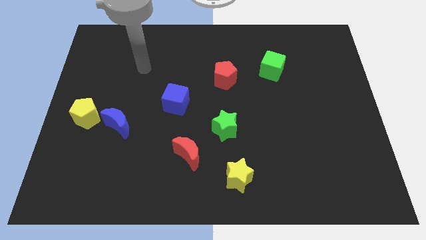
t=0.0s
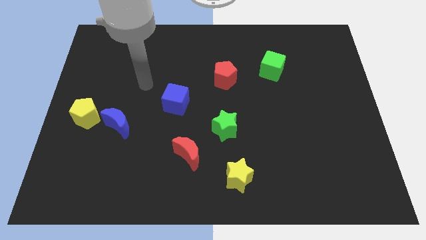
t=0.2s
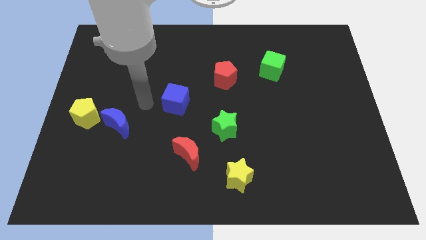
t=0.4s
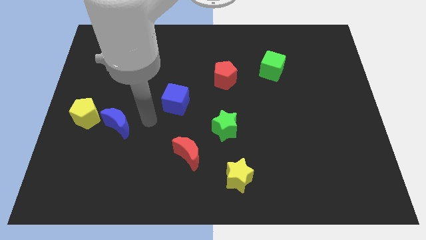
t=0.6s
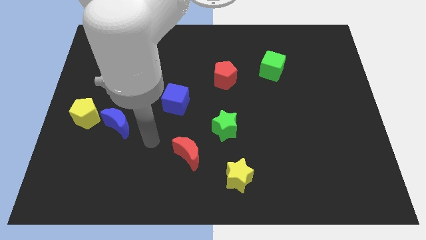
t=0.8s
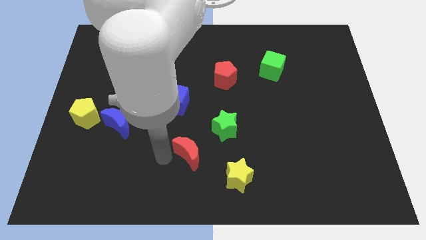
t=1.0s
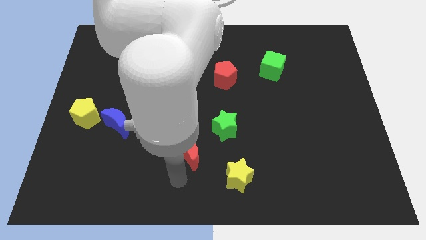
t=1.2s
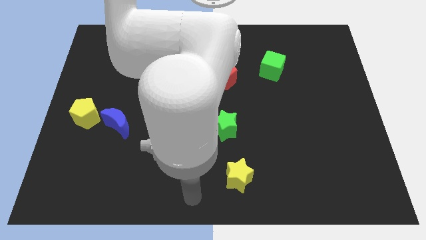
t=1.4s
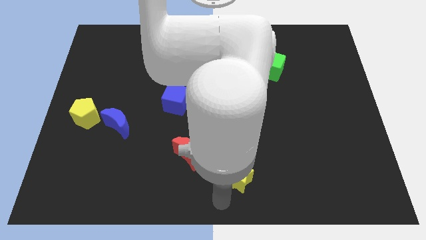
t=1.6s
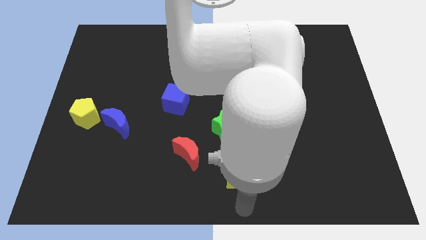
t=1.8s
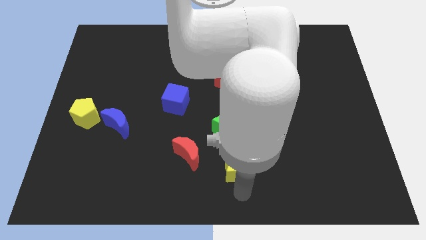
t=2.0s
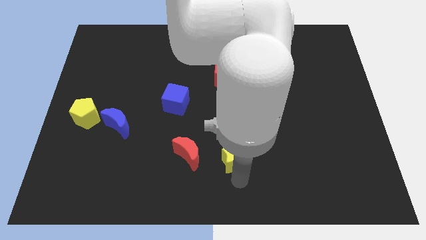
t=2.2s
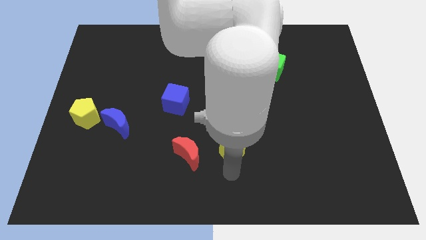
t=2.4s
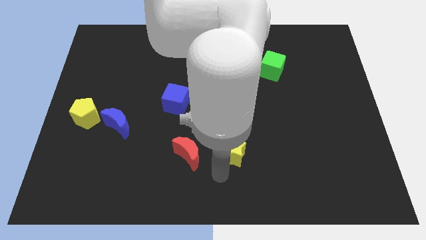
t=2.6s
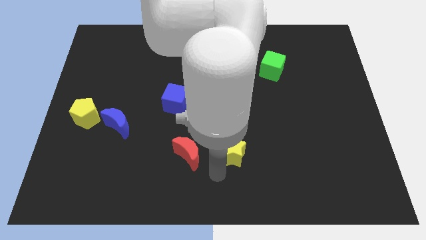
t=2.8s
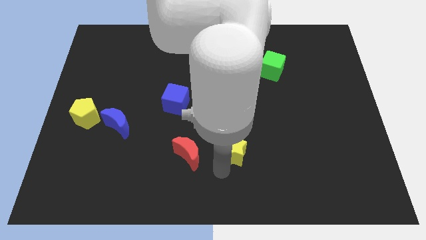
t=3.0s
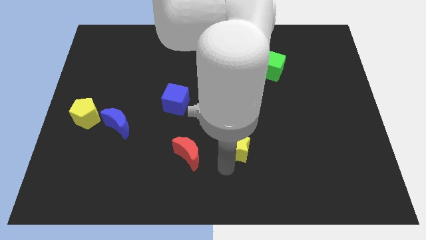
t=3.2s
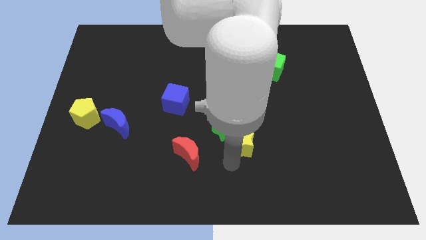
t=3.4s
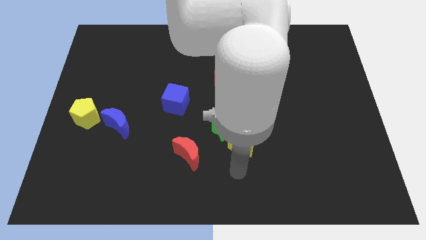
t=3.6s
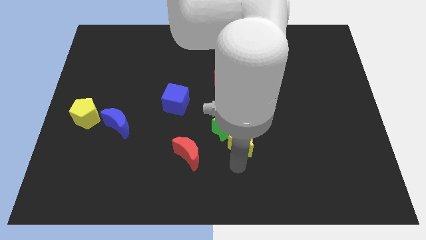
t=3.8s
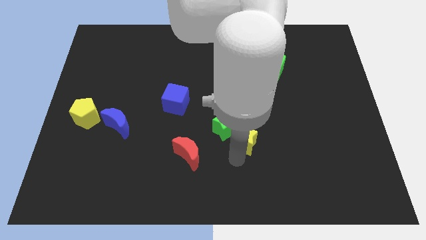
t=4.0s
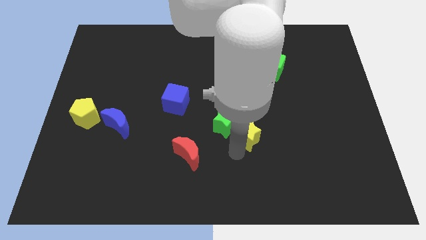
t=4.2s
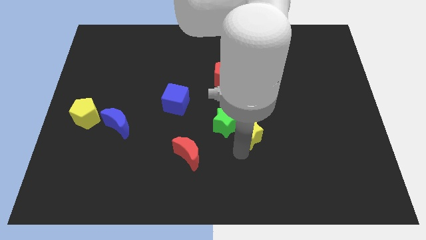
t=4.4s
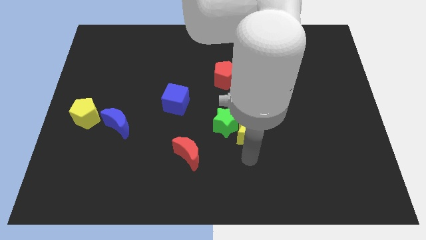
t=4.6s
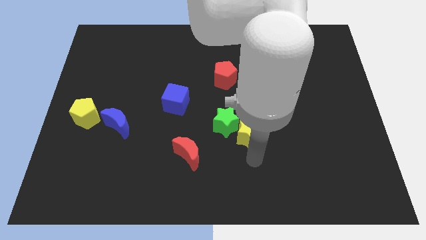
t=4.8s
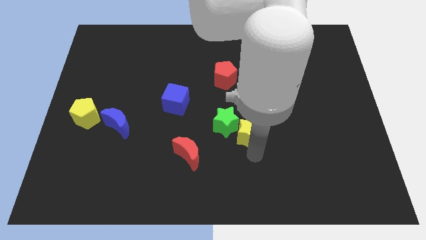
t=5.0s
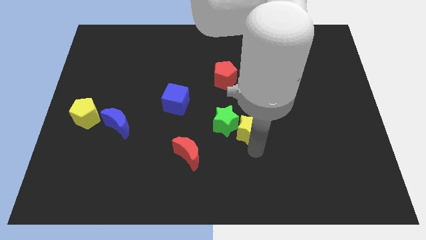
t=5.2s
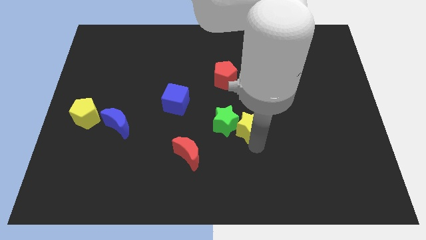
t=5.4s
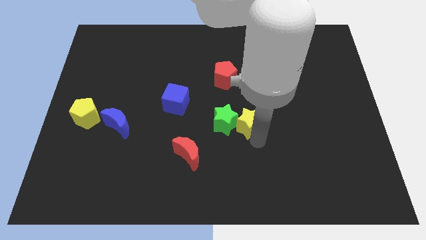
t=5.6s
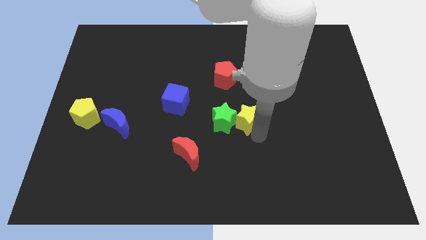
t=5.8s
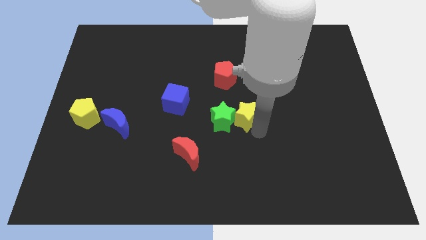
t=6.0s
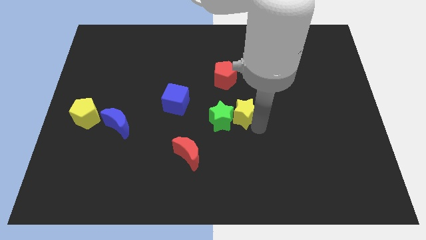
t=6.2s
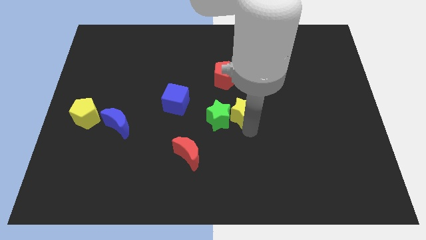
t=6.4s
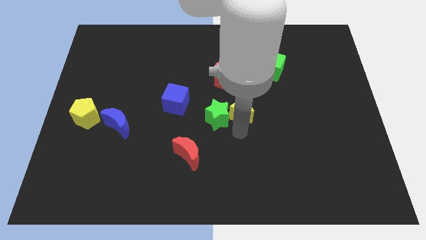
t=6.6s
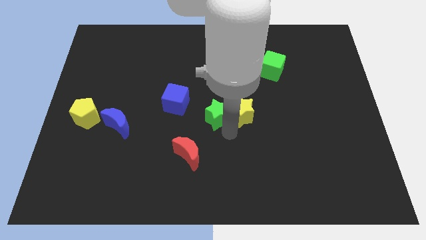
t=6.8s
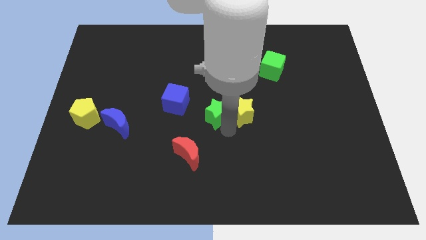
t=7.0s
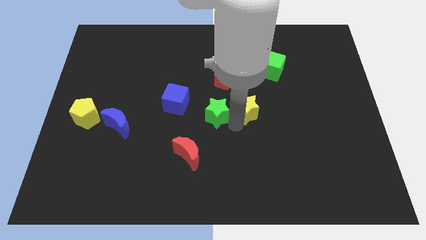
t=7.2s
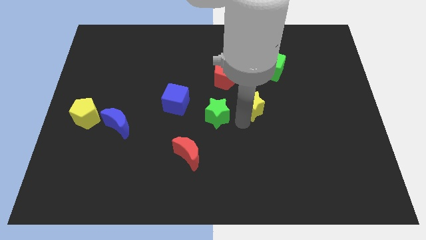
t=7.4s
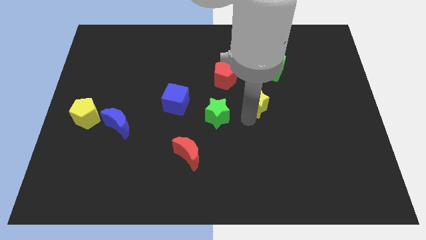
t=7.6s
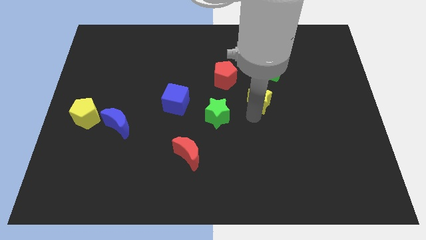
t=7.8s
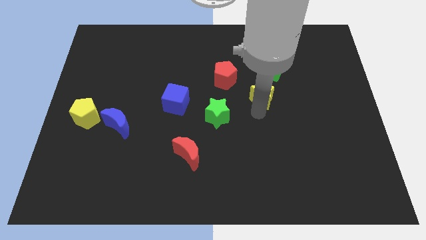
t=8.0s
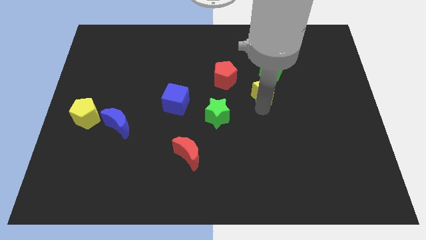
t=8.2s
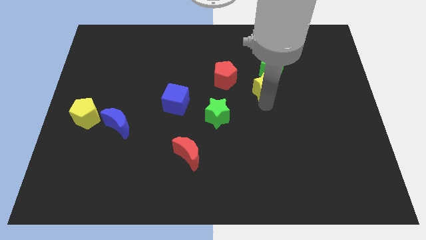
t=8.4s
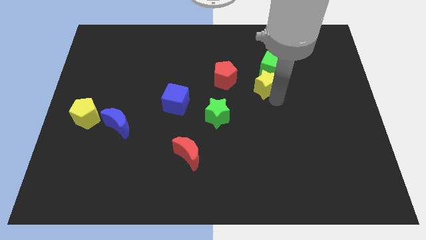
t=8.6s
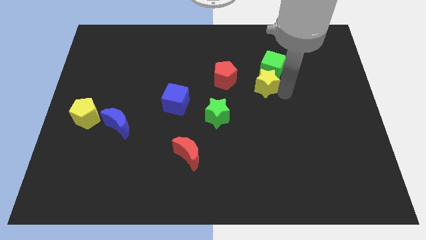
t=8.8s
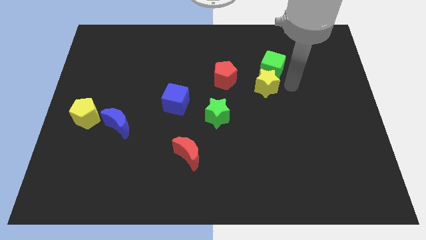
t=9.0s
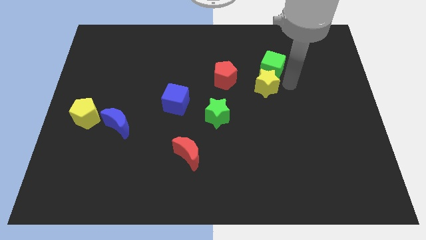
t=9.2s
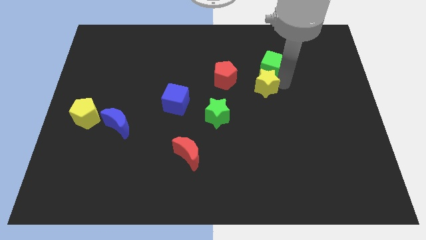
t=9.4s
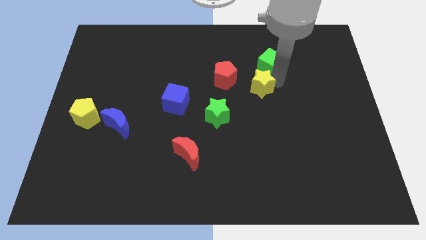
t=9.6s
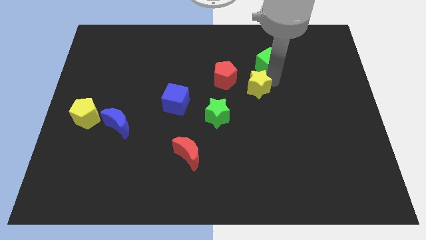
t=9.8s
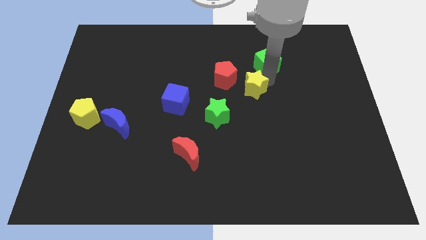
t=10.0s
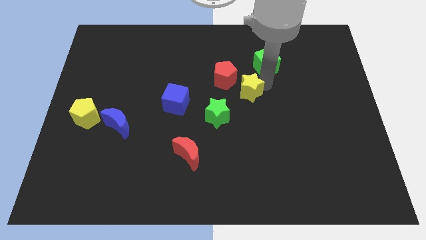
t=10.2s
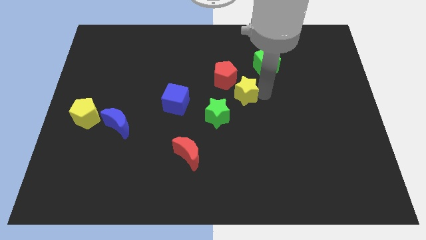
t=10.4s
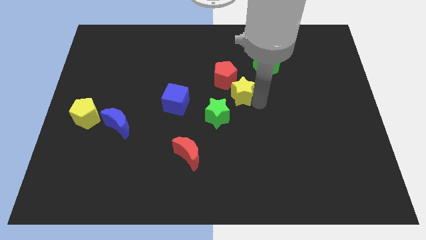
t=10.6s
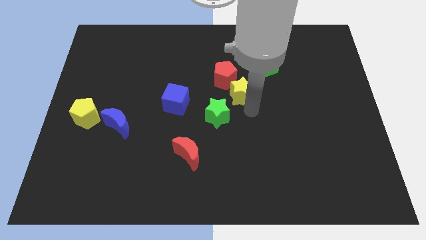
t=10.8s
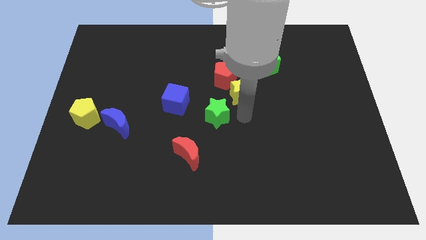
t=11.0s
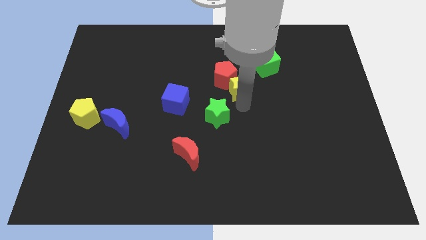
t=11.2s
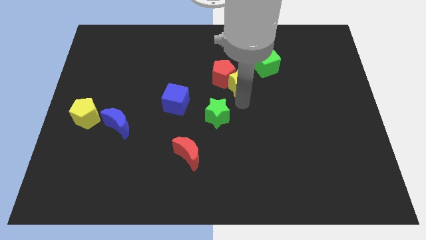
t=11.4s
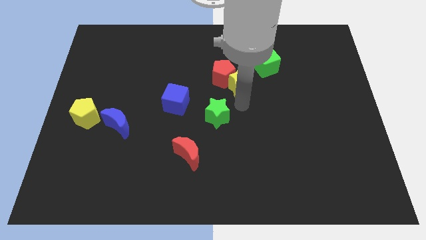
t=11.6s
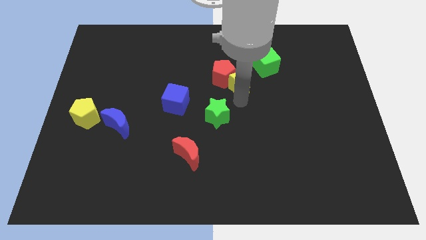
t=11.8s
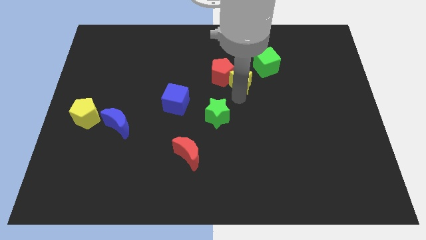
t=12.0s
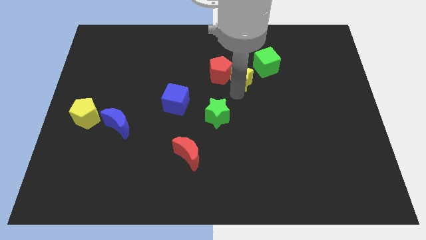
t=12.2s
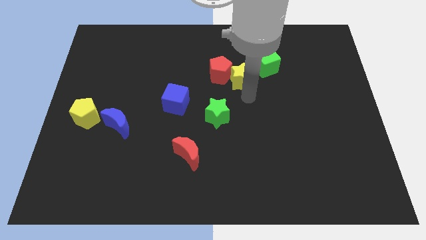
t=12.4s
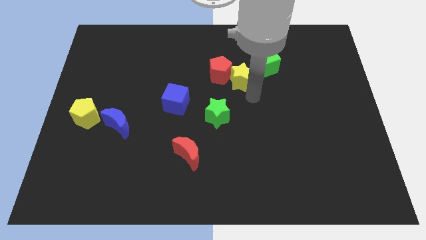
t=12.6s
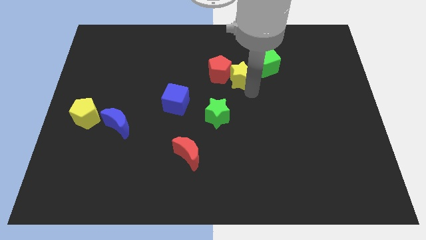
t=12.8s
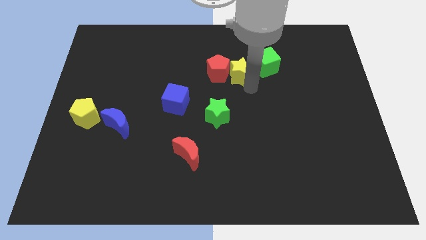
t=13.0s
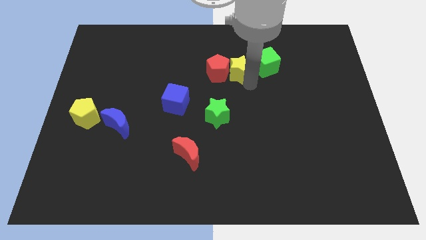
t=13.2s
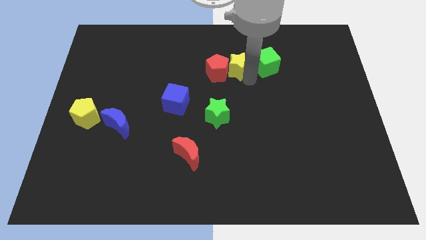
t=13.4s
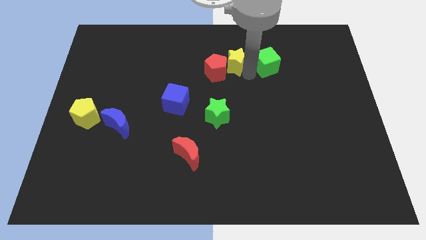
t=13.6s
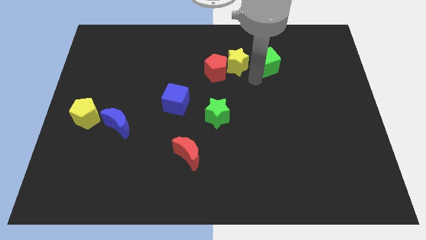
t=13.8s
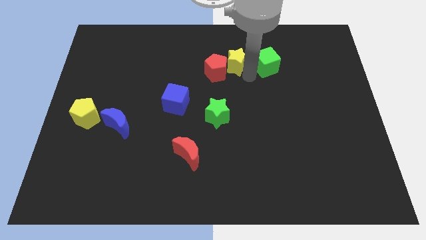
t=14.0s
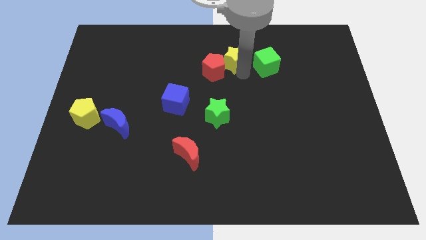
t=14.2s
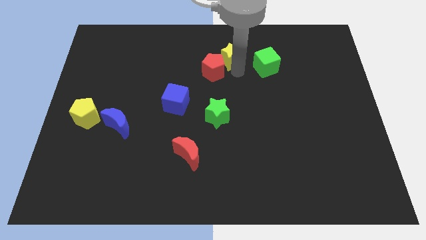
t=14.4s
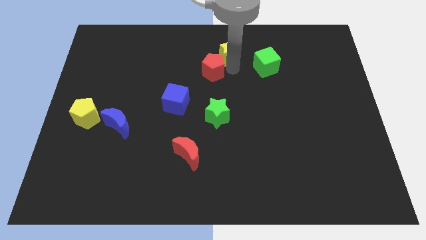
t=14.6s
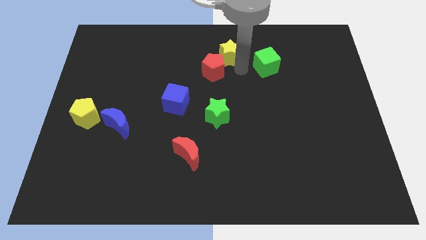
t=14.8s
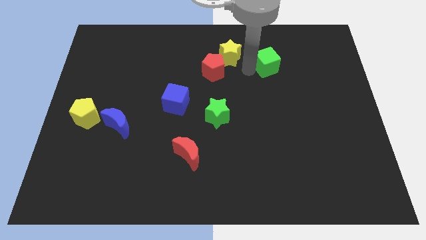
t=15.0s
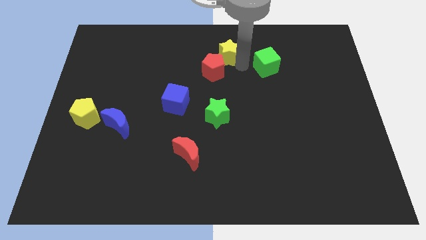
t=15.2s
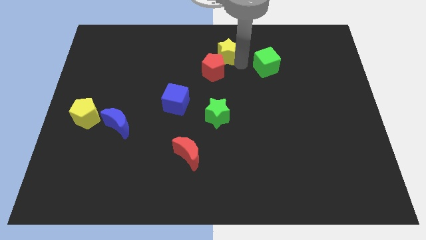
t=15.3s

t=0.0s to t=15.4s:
slide the yellow star to the towards your base
